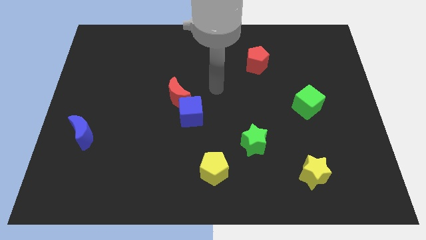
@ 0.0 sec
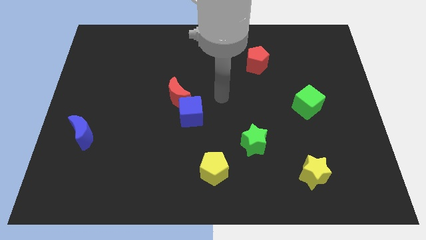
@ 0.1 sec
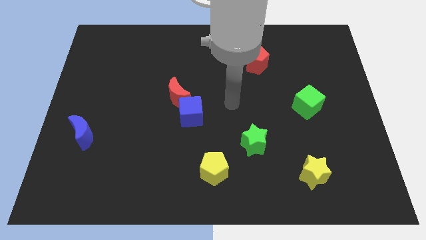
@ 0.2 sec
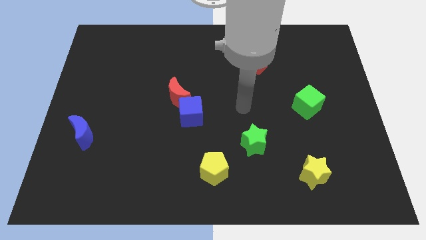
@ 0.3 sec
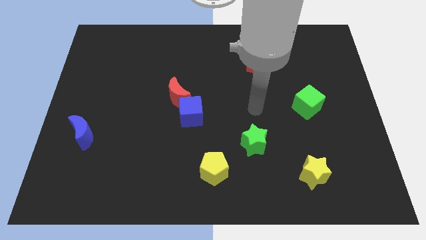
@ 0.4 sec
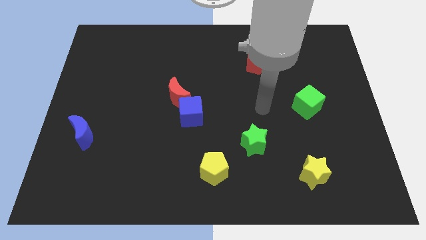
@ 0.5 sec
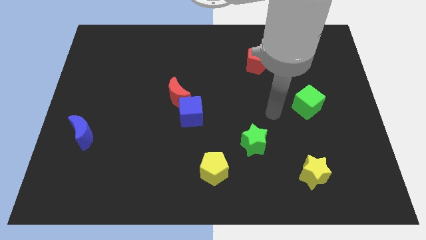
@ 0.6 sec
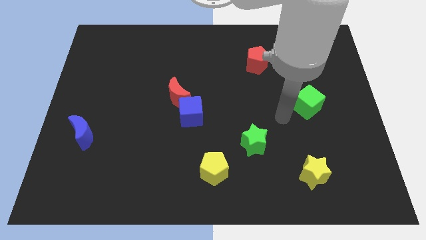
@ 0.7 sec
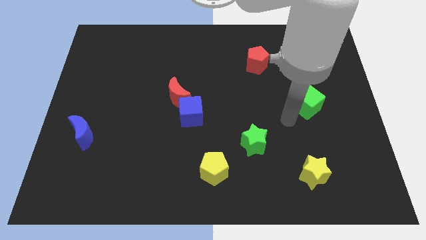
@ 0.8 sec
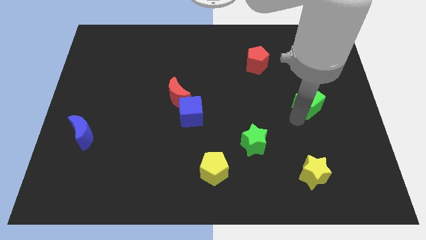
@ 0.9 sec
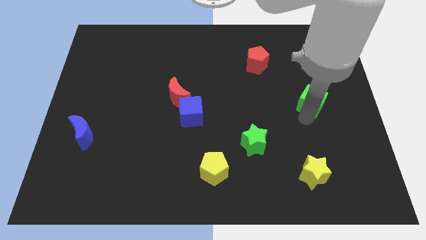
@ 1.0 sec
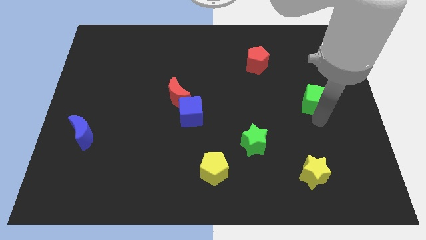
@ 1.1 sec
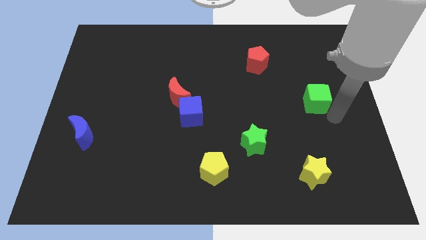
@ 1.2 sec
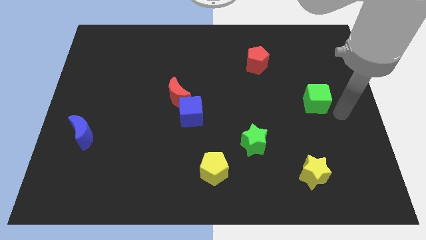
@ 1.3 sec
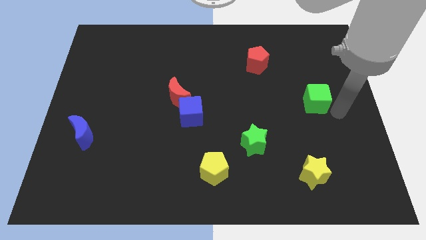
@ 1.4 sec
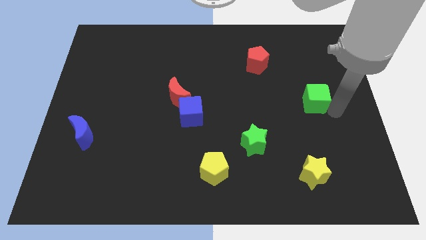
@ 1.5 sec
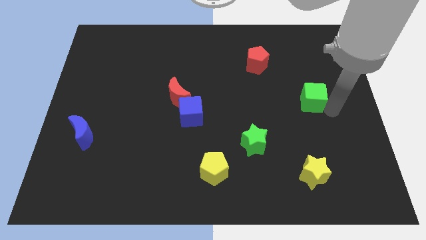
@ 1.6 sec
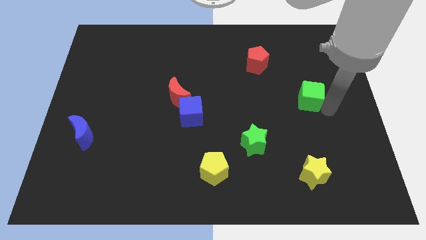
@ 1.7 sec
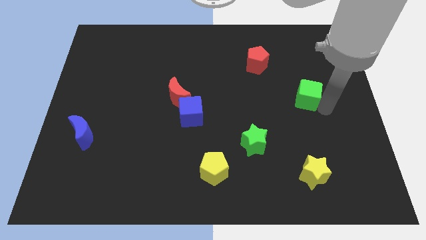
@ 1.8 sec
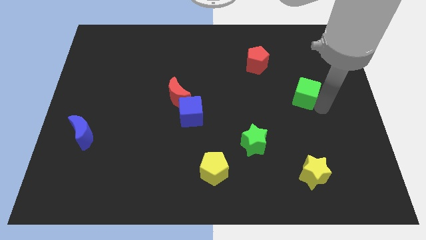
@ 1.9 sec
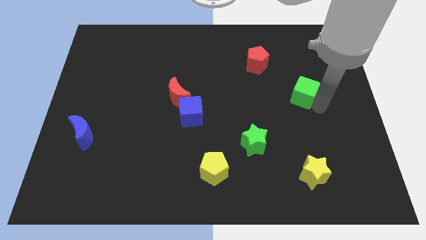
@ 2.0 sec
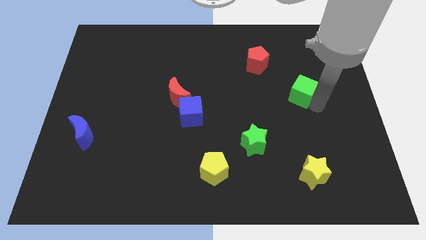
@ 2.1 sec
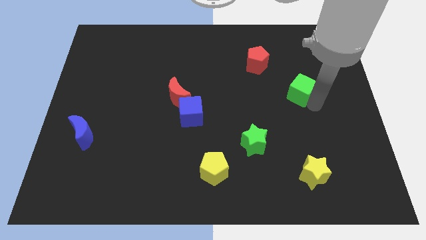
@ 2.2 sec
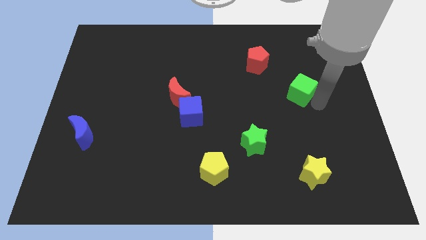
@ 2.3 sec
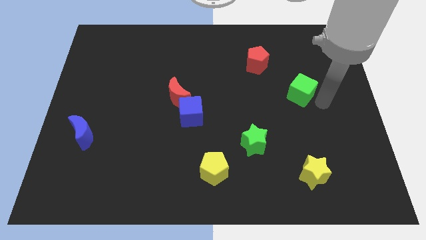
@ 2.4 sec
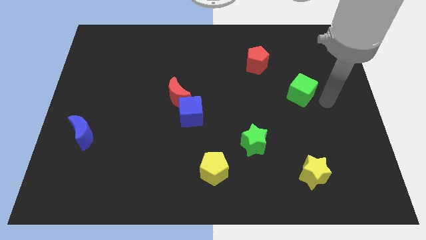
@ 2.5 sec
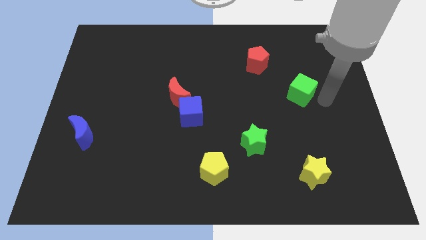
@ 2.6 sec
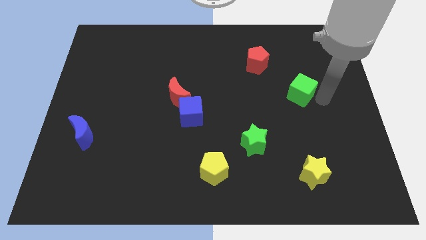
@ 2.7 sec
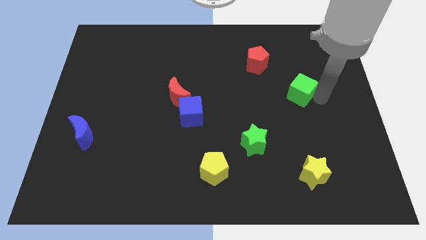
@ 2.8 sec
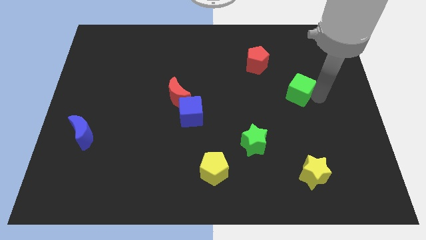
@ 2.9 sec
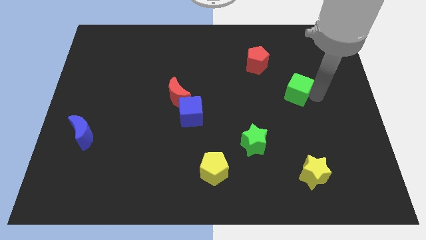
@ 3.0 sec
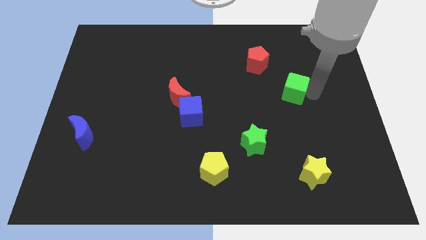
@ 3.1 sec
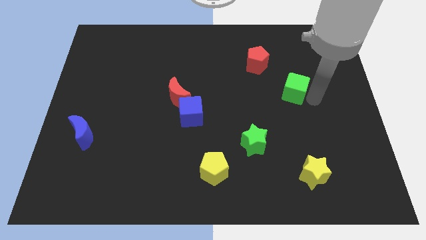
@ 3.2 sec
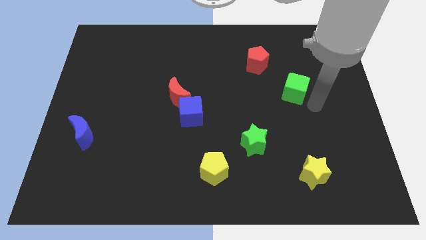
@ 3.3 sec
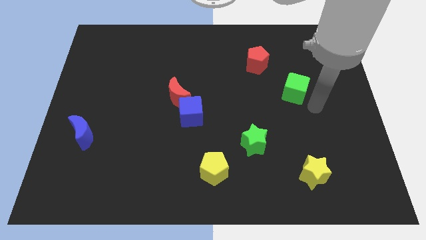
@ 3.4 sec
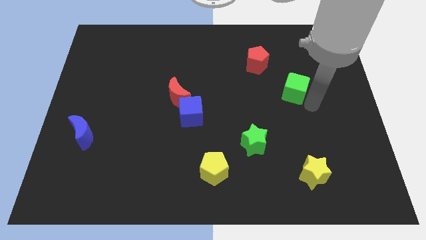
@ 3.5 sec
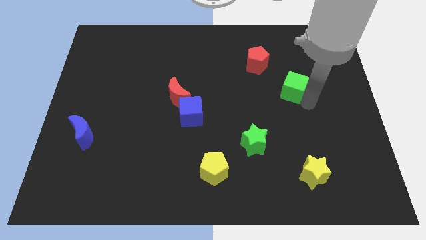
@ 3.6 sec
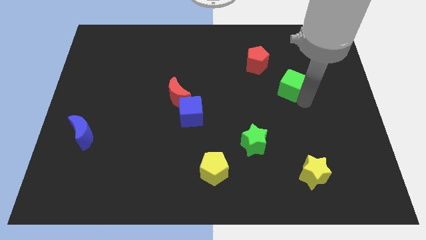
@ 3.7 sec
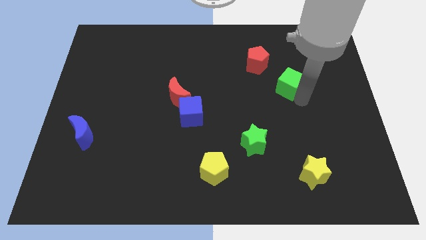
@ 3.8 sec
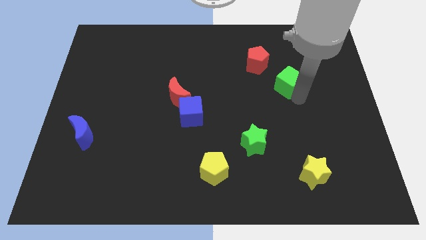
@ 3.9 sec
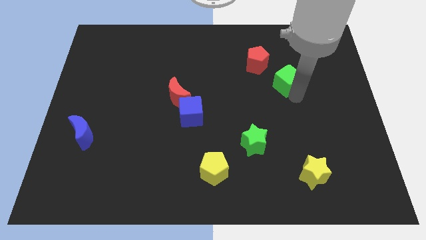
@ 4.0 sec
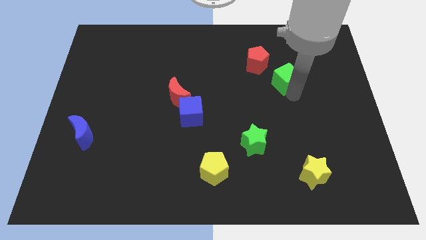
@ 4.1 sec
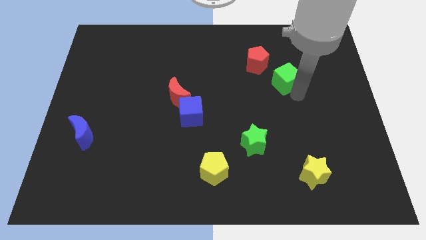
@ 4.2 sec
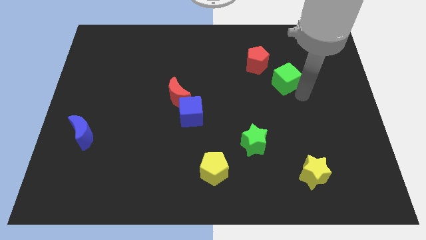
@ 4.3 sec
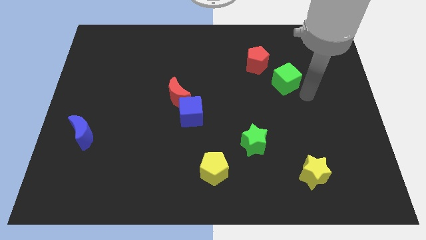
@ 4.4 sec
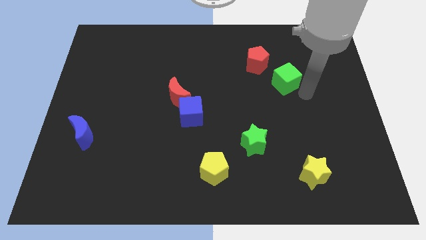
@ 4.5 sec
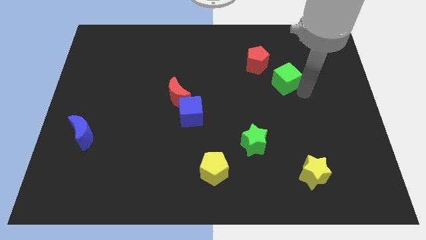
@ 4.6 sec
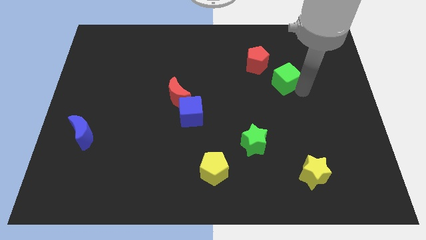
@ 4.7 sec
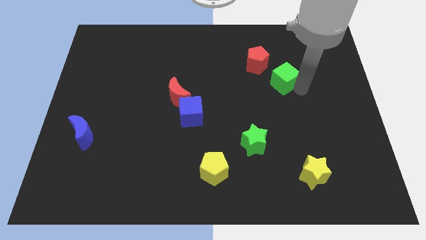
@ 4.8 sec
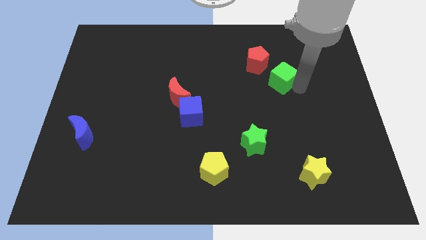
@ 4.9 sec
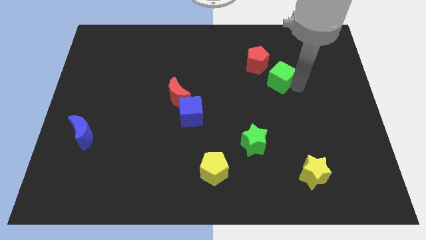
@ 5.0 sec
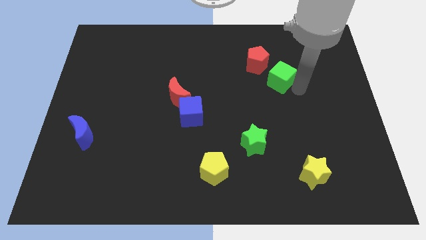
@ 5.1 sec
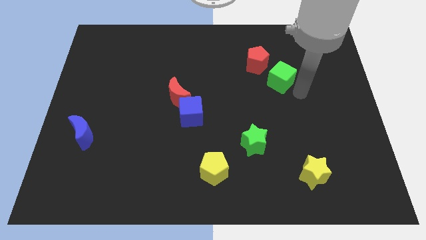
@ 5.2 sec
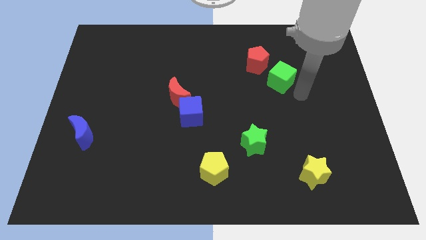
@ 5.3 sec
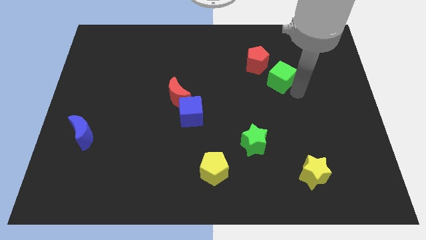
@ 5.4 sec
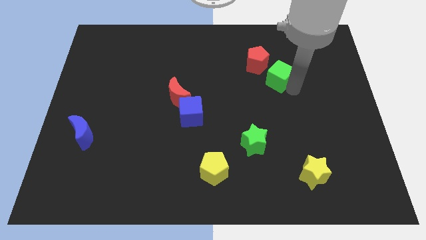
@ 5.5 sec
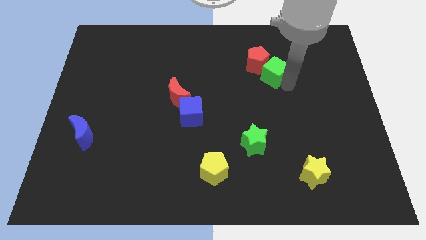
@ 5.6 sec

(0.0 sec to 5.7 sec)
move the green cube towards the red pentagon

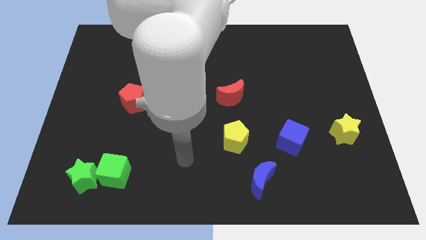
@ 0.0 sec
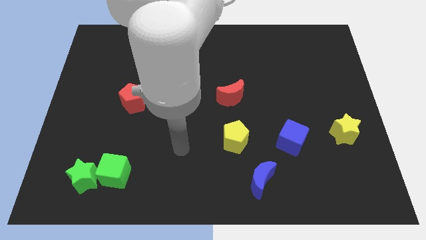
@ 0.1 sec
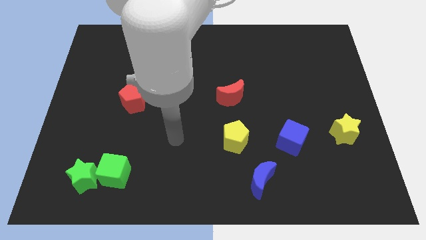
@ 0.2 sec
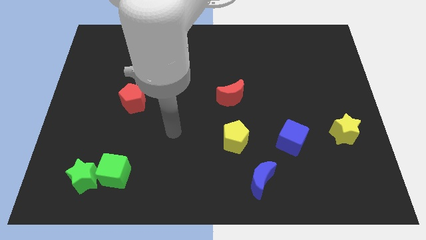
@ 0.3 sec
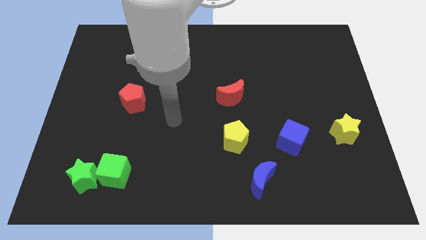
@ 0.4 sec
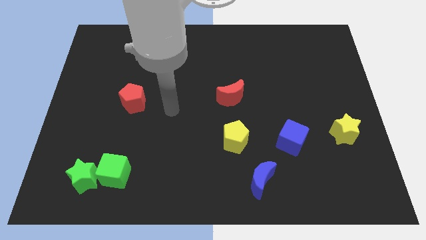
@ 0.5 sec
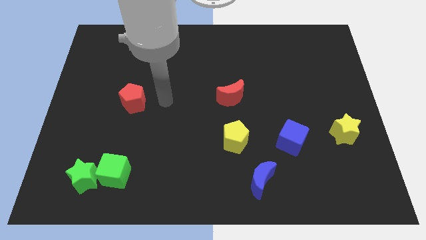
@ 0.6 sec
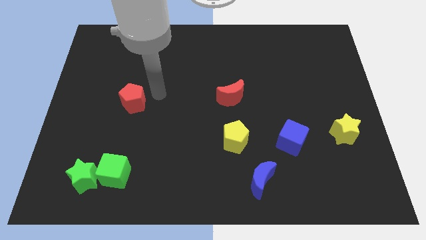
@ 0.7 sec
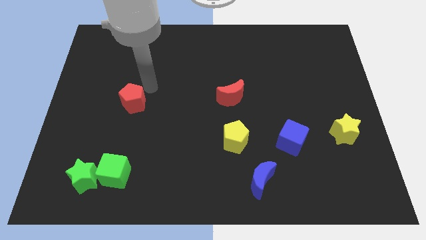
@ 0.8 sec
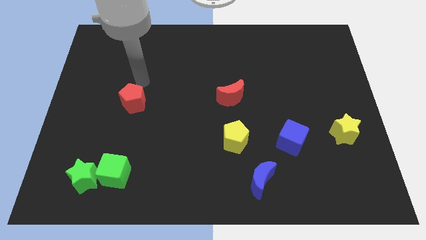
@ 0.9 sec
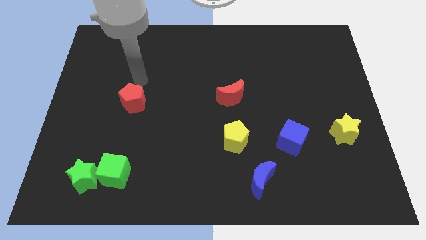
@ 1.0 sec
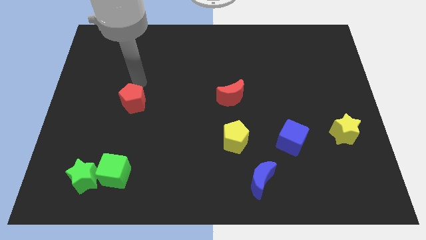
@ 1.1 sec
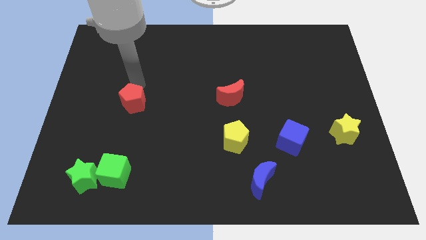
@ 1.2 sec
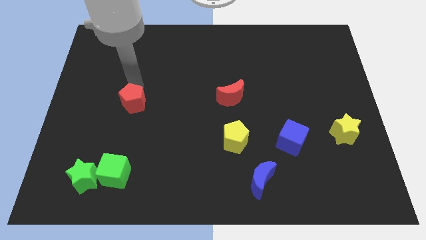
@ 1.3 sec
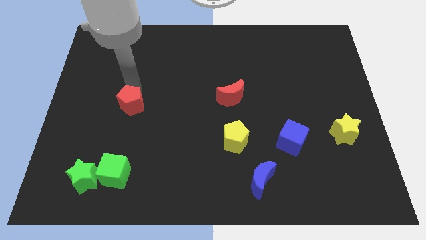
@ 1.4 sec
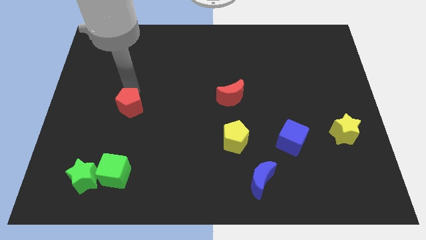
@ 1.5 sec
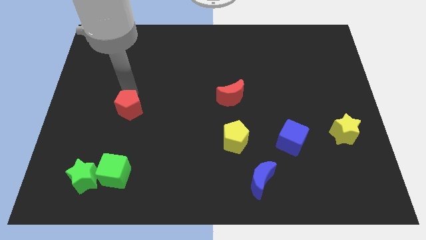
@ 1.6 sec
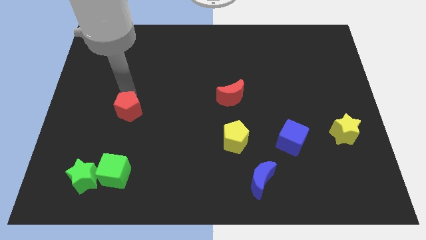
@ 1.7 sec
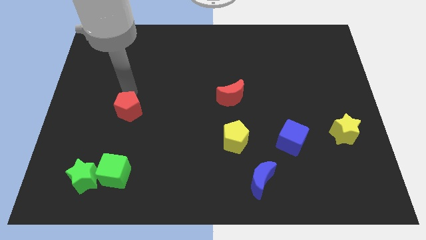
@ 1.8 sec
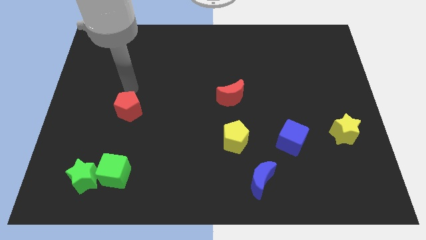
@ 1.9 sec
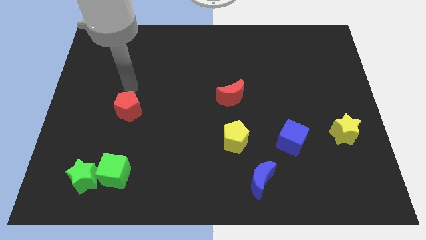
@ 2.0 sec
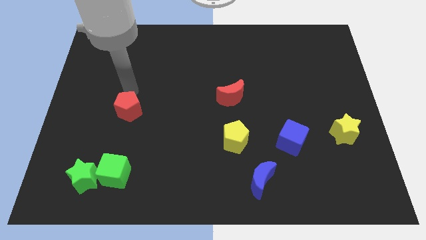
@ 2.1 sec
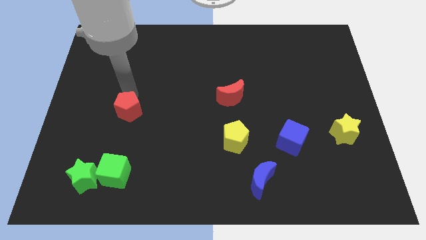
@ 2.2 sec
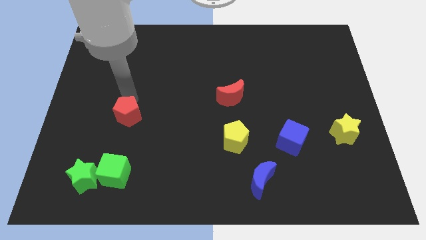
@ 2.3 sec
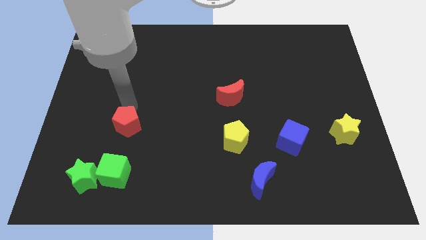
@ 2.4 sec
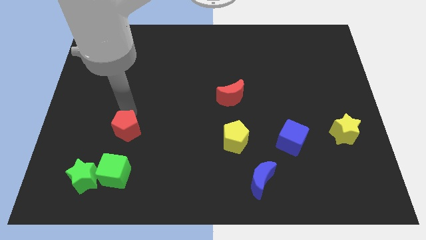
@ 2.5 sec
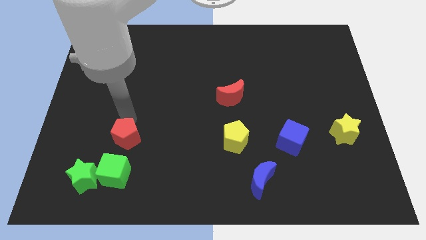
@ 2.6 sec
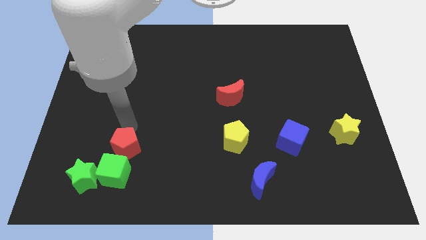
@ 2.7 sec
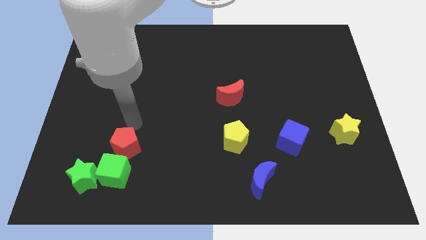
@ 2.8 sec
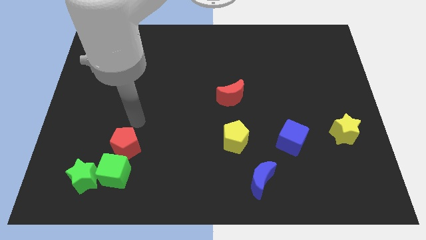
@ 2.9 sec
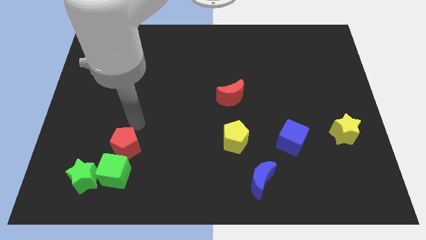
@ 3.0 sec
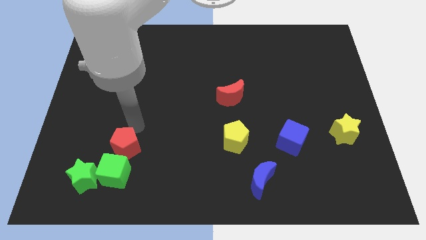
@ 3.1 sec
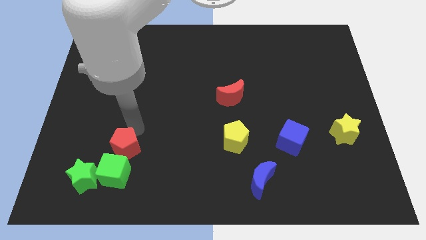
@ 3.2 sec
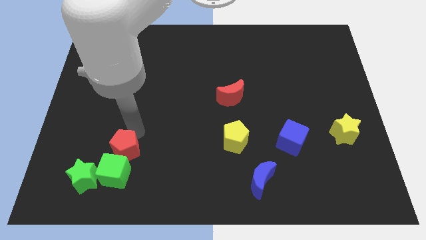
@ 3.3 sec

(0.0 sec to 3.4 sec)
move the red pentagon next to the green cube
